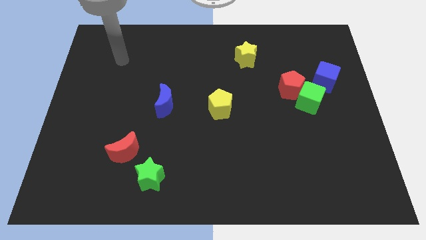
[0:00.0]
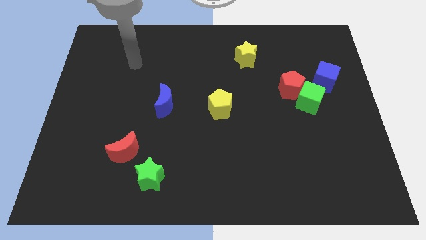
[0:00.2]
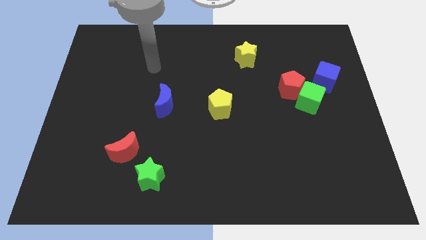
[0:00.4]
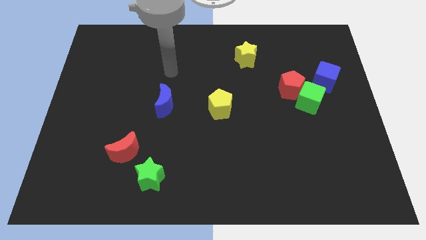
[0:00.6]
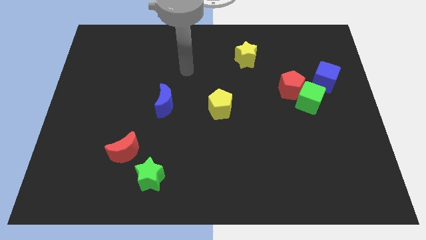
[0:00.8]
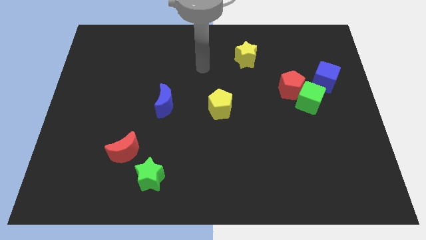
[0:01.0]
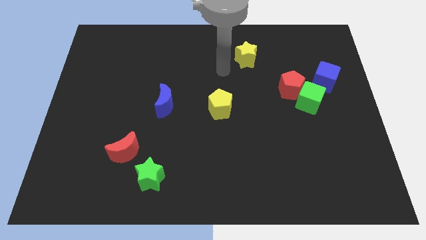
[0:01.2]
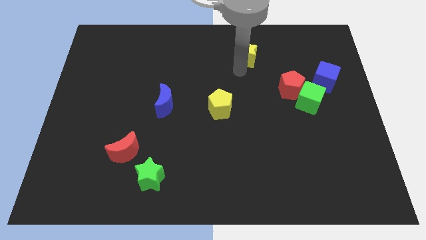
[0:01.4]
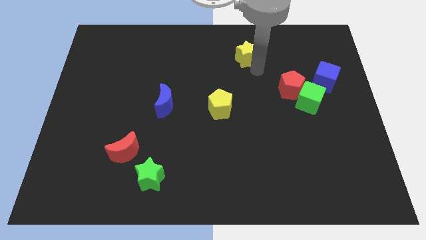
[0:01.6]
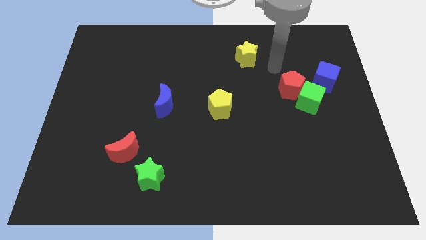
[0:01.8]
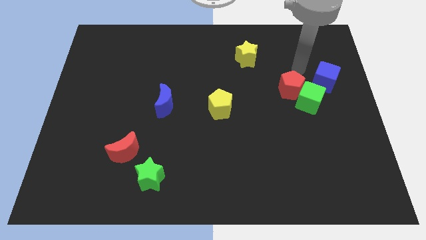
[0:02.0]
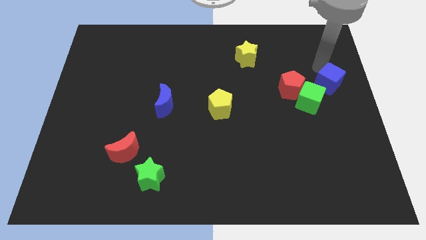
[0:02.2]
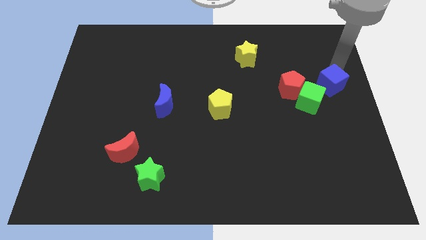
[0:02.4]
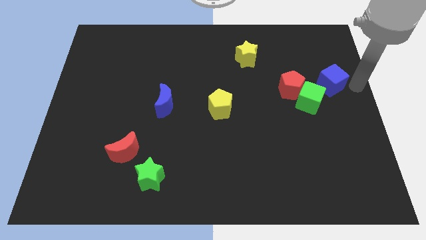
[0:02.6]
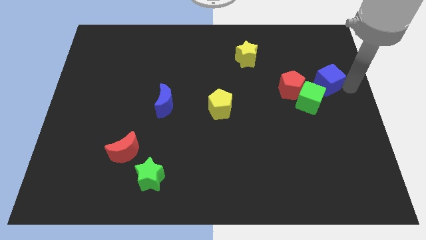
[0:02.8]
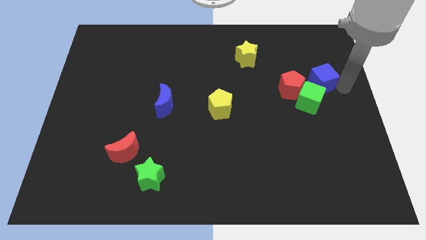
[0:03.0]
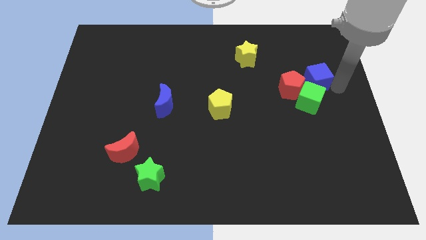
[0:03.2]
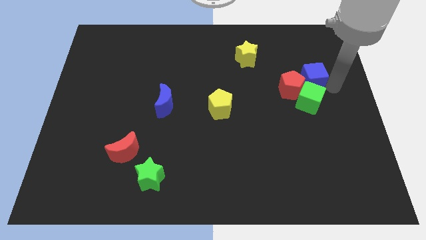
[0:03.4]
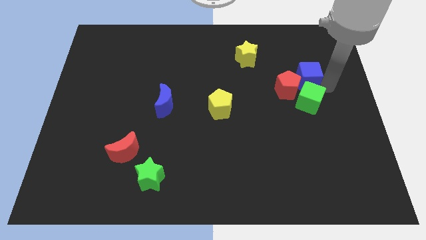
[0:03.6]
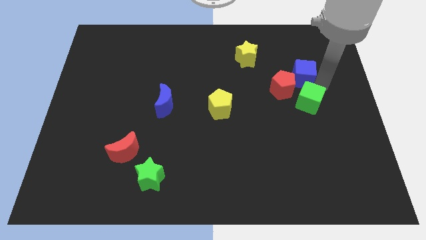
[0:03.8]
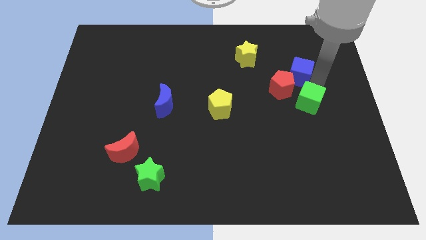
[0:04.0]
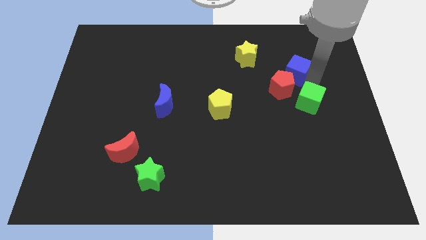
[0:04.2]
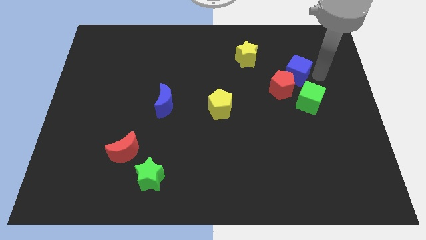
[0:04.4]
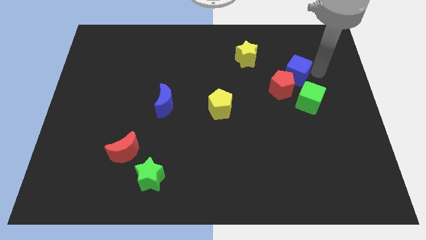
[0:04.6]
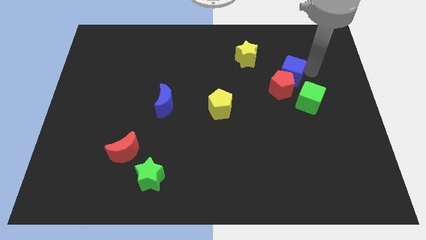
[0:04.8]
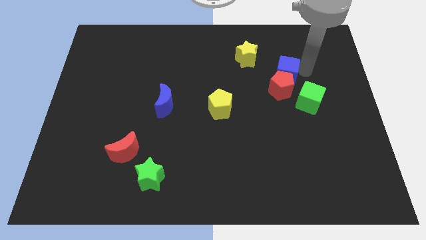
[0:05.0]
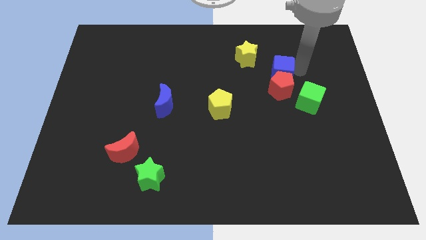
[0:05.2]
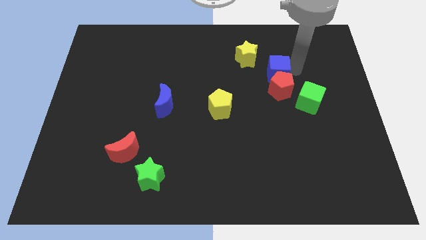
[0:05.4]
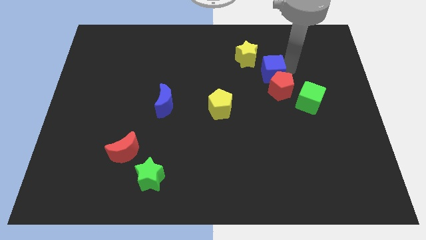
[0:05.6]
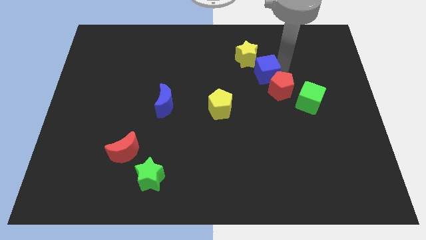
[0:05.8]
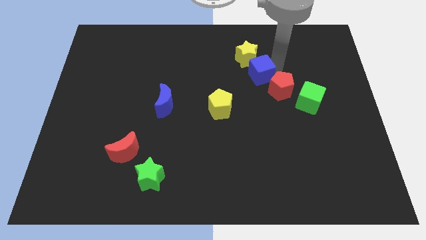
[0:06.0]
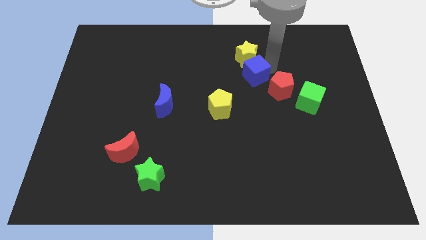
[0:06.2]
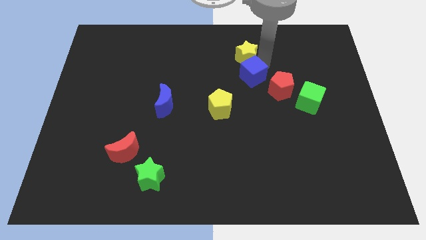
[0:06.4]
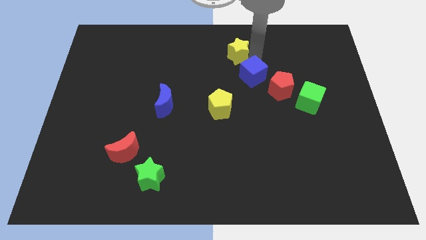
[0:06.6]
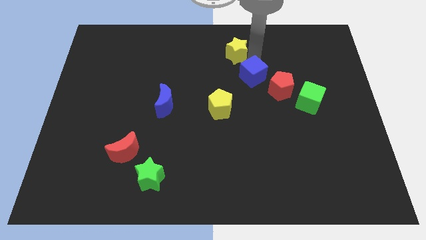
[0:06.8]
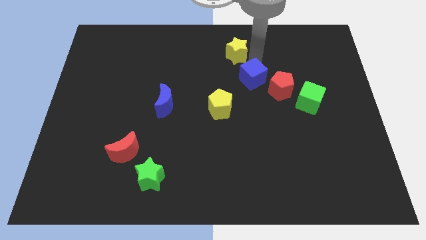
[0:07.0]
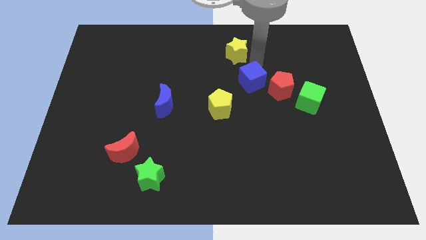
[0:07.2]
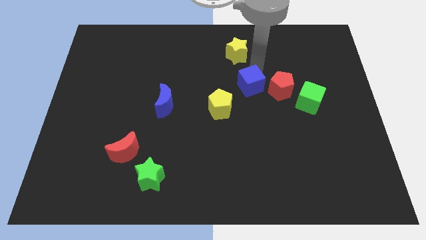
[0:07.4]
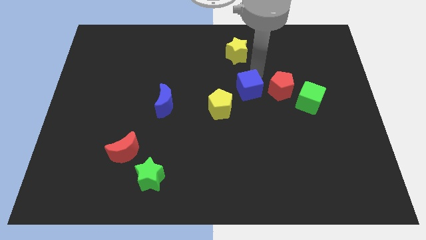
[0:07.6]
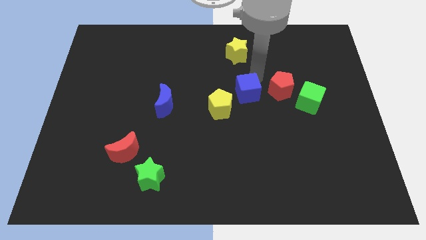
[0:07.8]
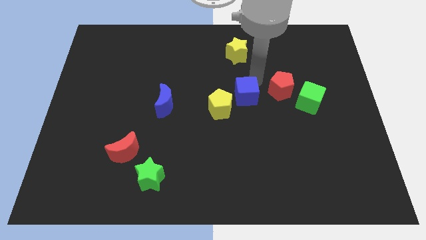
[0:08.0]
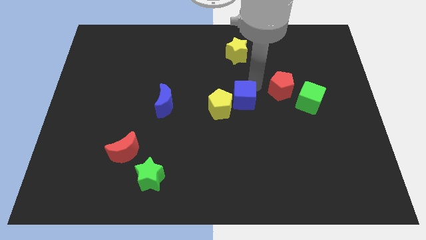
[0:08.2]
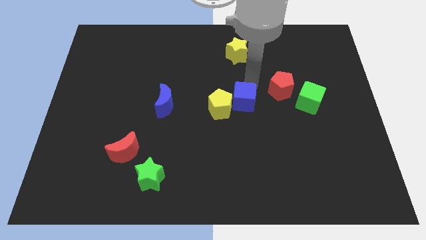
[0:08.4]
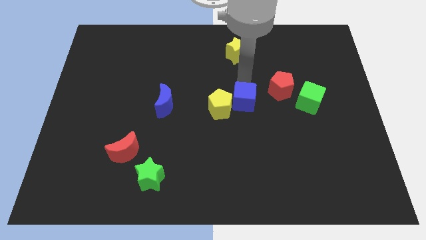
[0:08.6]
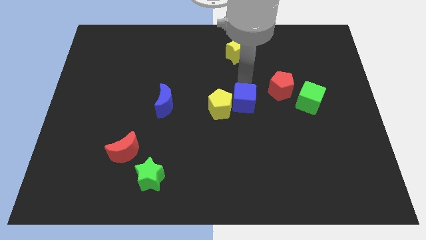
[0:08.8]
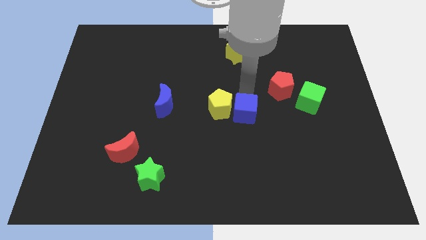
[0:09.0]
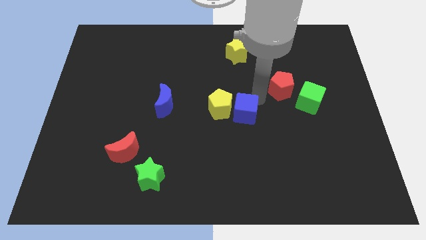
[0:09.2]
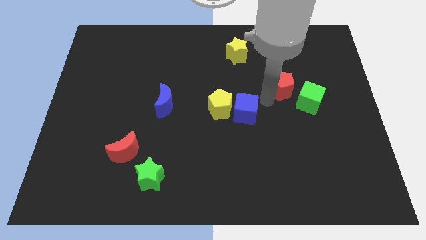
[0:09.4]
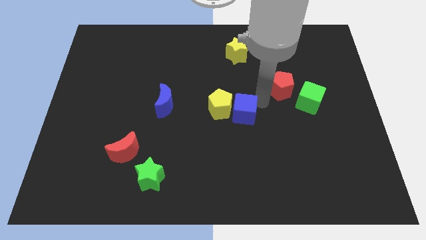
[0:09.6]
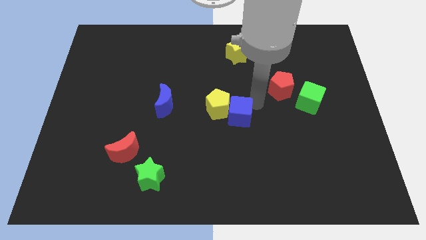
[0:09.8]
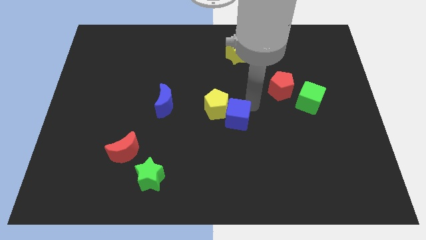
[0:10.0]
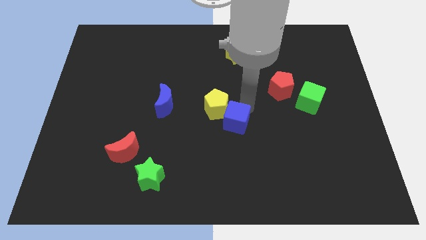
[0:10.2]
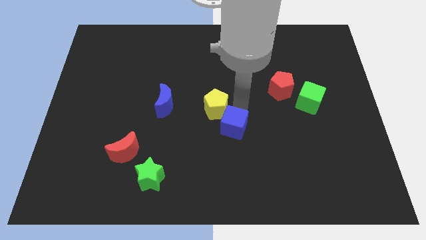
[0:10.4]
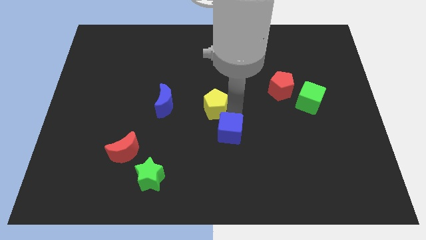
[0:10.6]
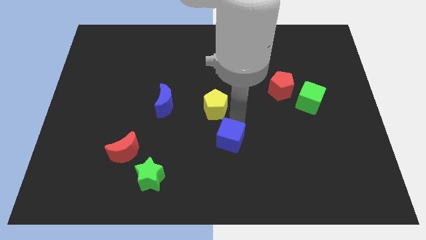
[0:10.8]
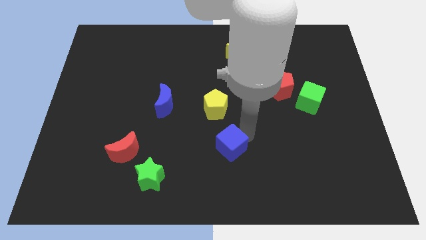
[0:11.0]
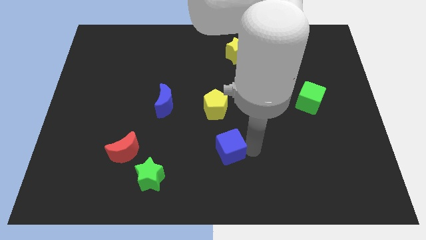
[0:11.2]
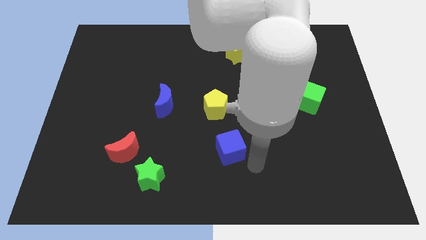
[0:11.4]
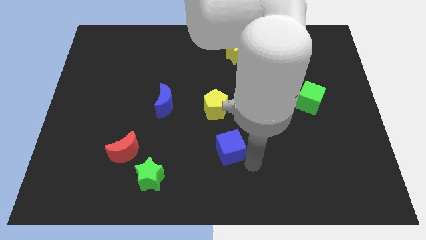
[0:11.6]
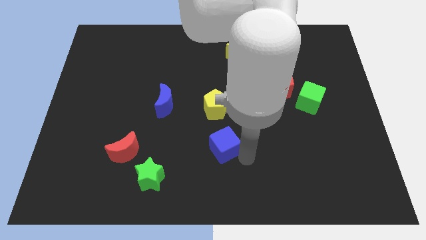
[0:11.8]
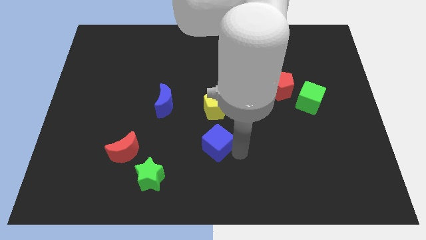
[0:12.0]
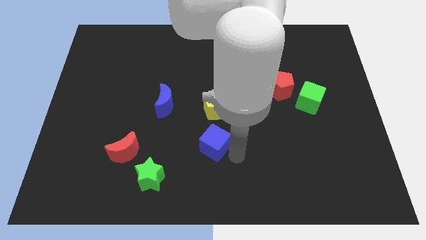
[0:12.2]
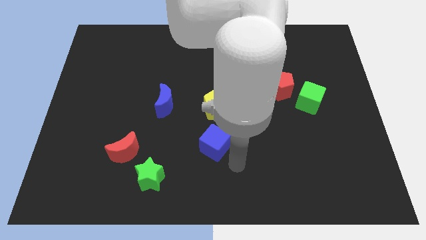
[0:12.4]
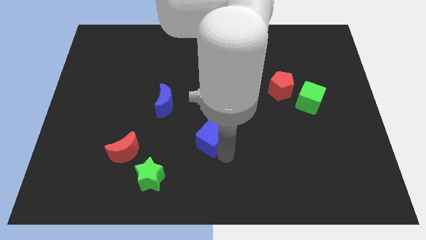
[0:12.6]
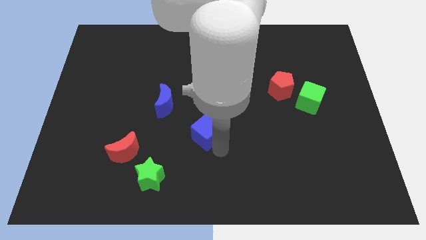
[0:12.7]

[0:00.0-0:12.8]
put the blue cube diagonally down and to the left of the yellow pentagon
